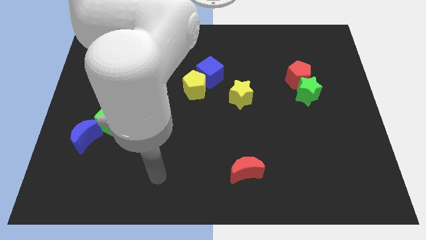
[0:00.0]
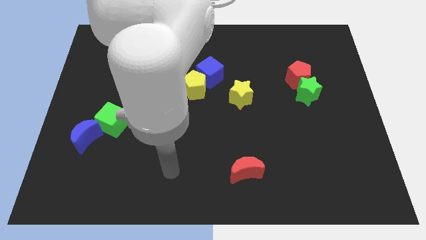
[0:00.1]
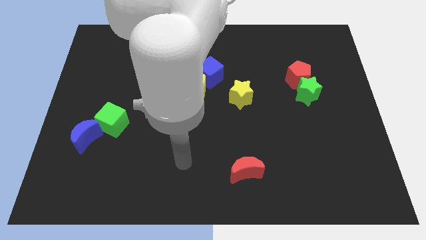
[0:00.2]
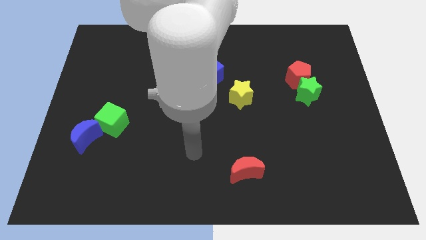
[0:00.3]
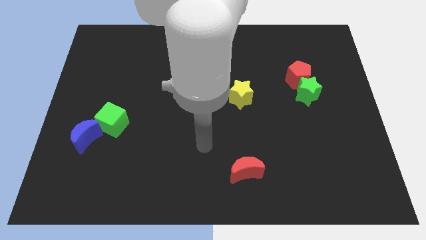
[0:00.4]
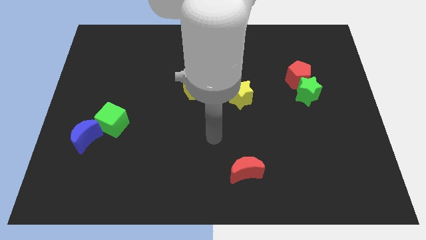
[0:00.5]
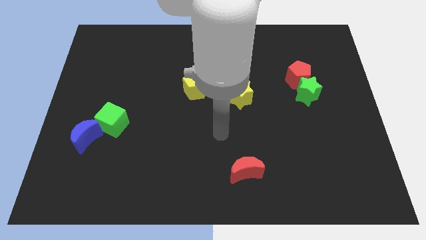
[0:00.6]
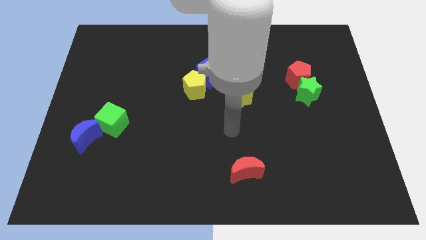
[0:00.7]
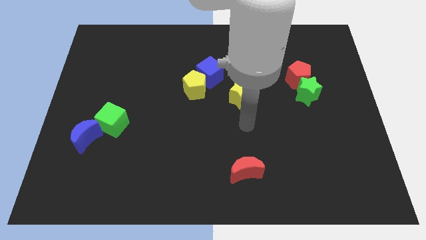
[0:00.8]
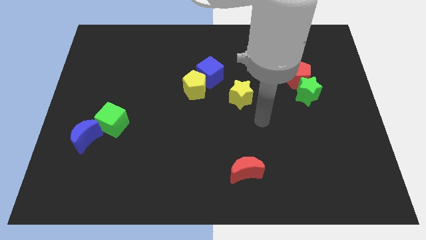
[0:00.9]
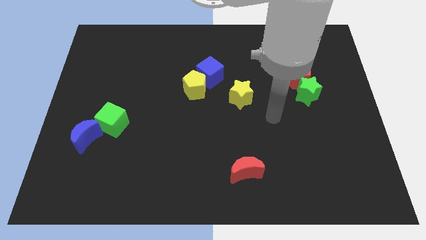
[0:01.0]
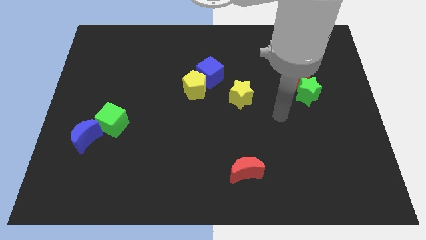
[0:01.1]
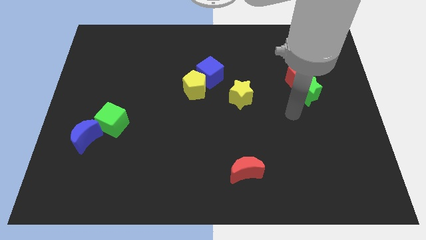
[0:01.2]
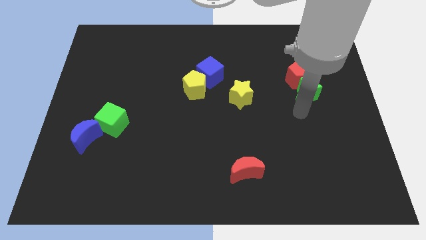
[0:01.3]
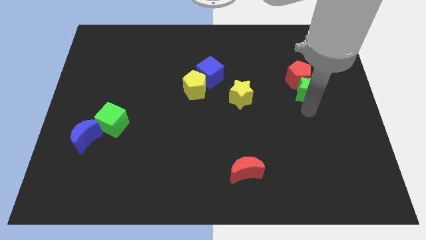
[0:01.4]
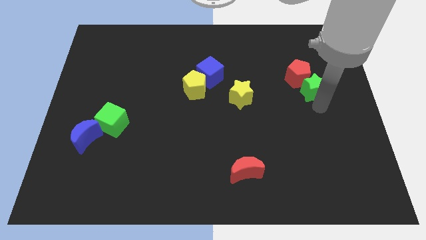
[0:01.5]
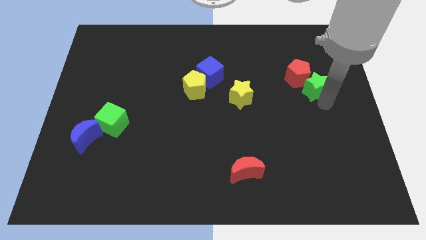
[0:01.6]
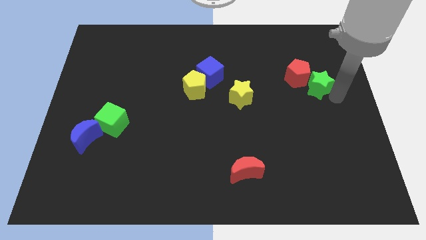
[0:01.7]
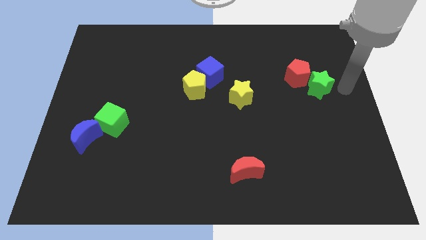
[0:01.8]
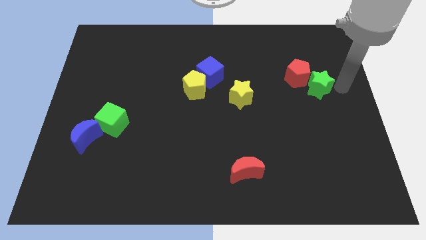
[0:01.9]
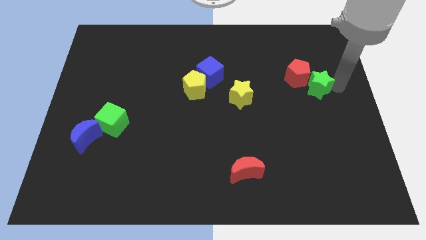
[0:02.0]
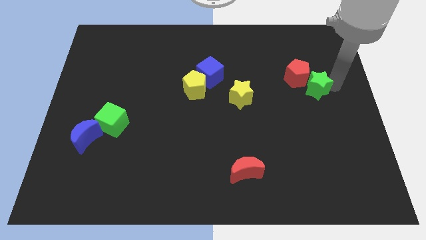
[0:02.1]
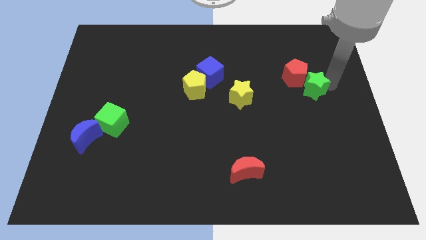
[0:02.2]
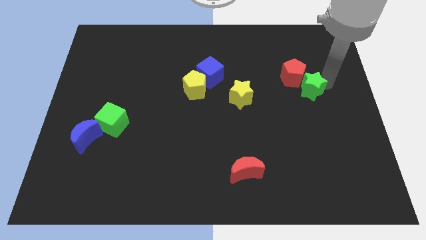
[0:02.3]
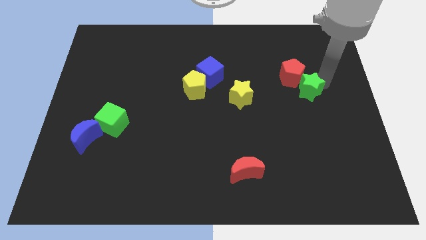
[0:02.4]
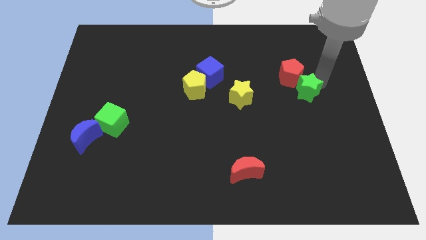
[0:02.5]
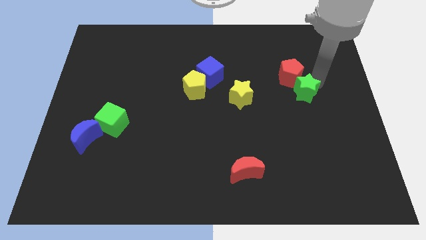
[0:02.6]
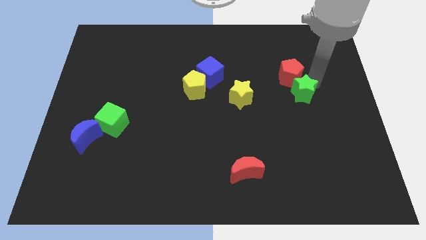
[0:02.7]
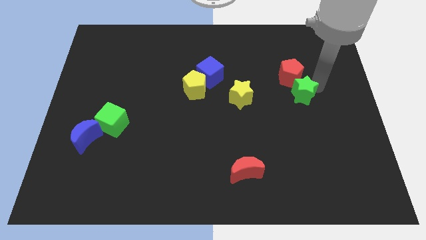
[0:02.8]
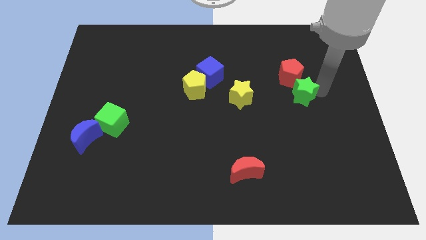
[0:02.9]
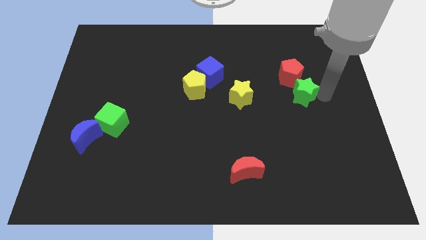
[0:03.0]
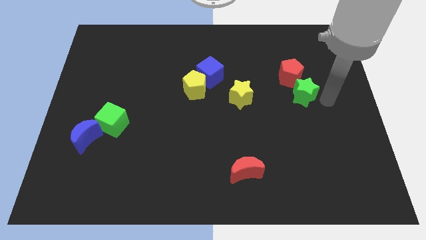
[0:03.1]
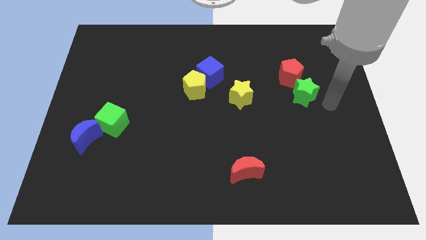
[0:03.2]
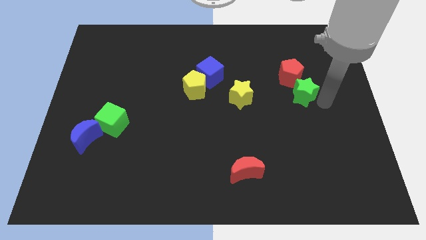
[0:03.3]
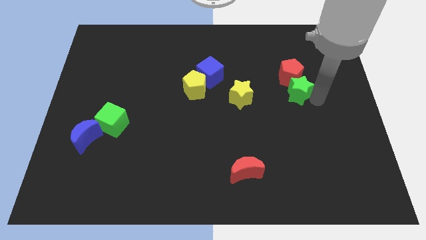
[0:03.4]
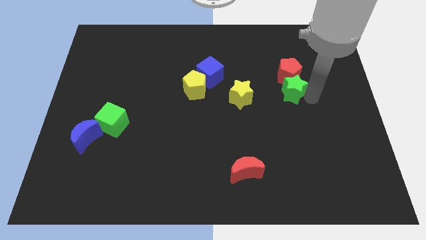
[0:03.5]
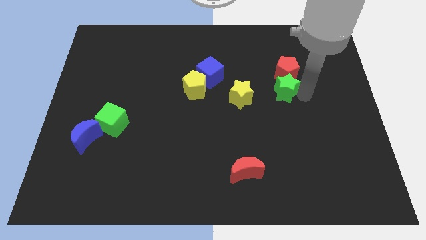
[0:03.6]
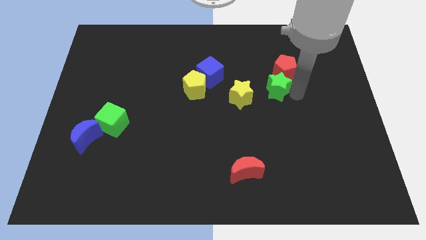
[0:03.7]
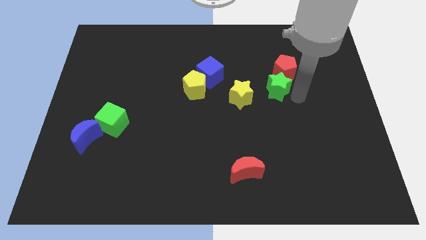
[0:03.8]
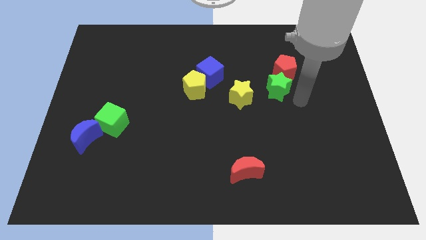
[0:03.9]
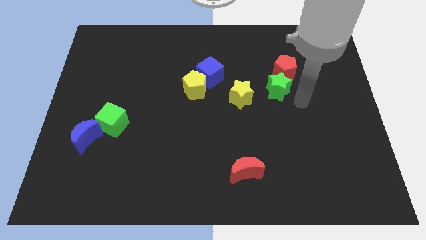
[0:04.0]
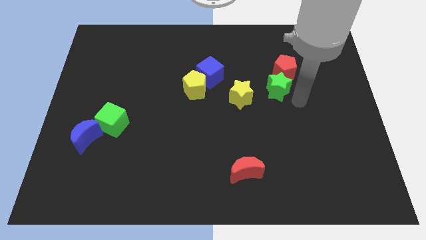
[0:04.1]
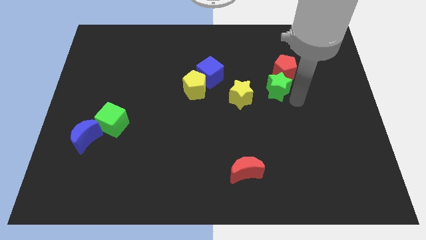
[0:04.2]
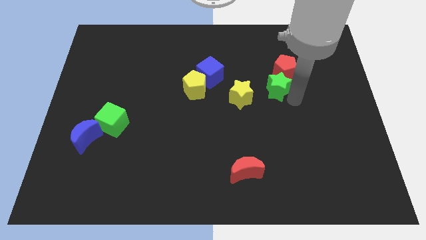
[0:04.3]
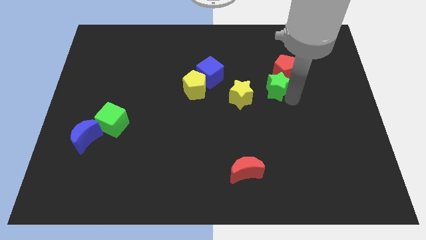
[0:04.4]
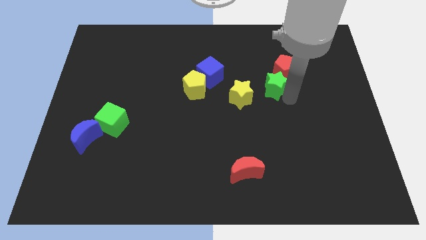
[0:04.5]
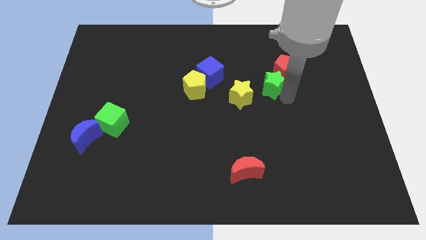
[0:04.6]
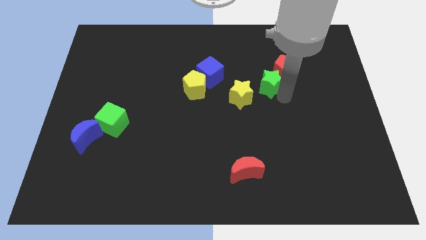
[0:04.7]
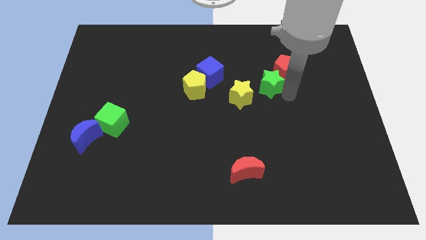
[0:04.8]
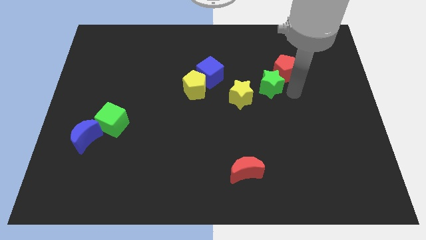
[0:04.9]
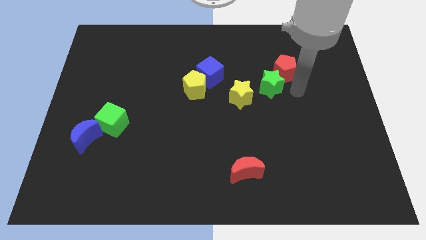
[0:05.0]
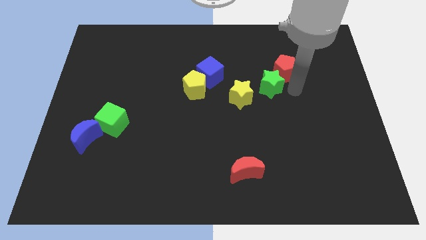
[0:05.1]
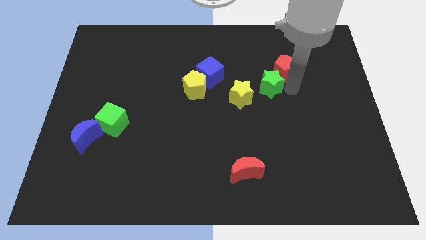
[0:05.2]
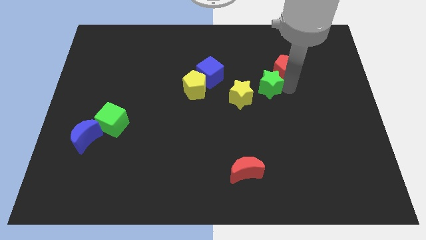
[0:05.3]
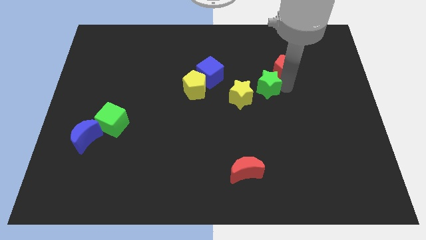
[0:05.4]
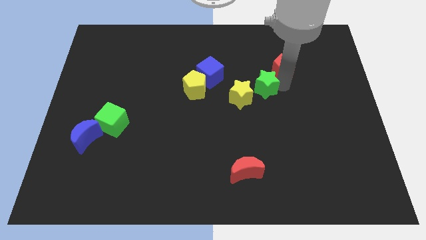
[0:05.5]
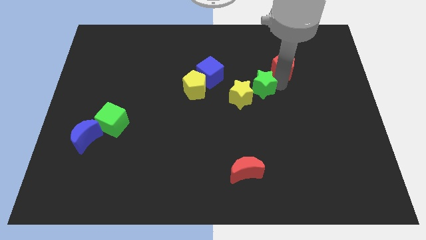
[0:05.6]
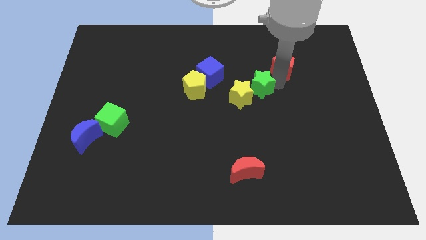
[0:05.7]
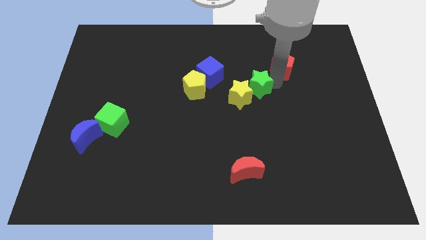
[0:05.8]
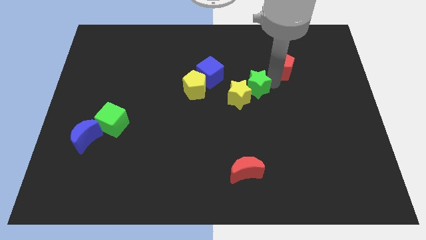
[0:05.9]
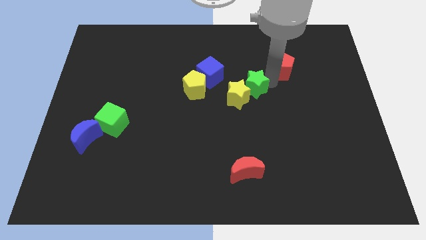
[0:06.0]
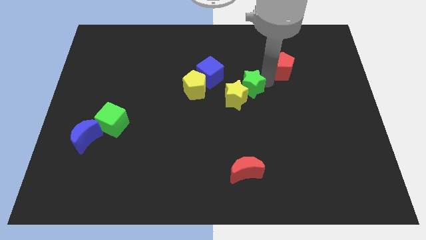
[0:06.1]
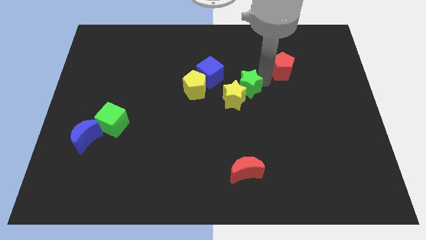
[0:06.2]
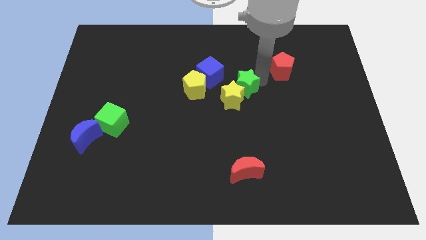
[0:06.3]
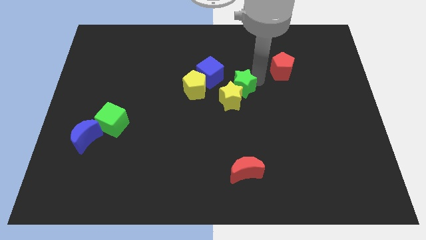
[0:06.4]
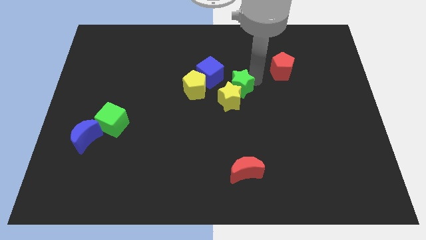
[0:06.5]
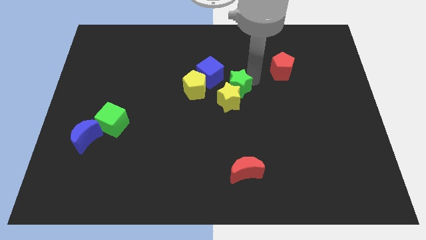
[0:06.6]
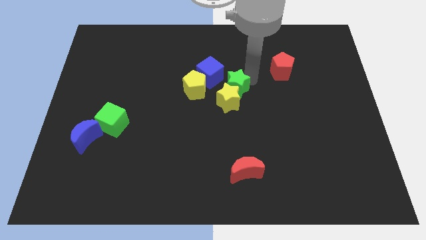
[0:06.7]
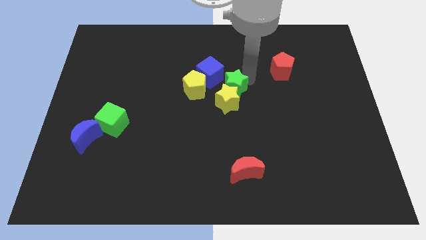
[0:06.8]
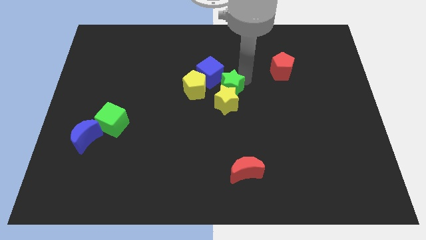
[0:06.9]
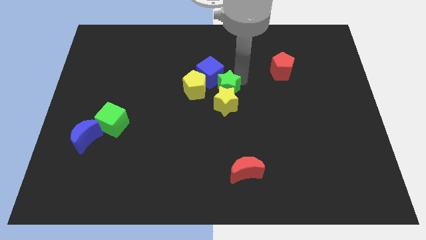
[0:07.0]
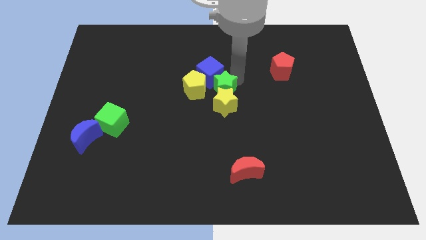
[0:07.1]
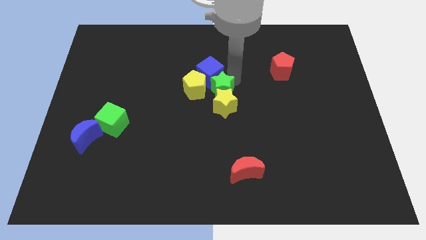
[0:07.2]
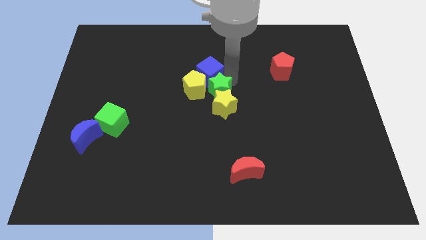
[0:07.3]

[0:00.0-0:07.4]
push the green star to the yellow pentagon
